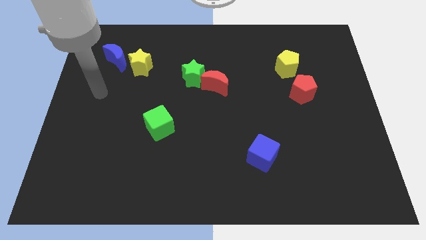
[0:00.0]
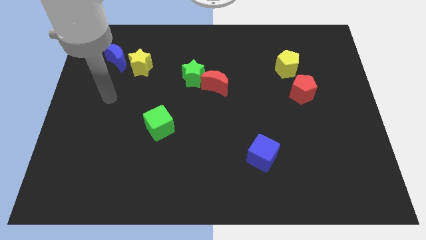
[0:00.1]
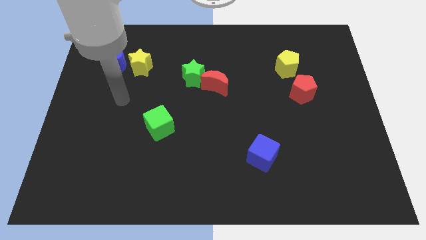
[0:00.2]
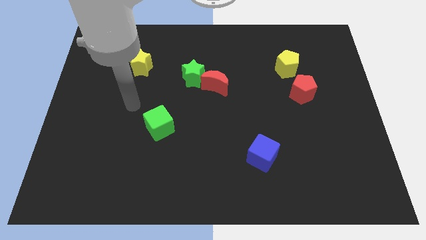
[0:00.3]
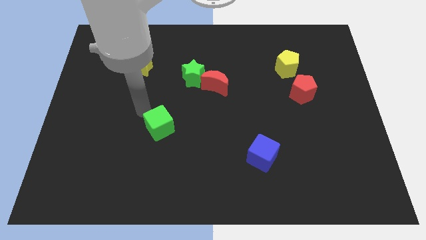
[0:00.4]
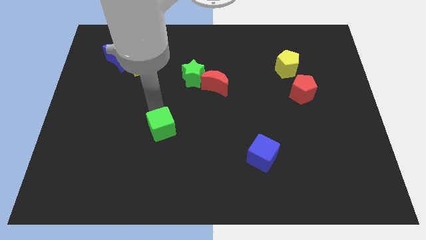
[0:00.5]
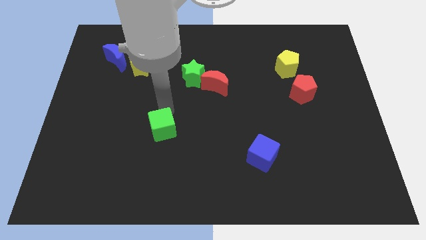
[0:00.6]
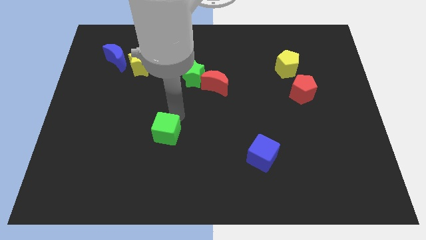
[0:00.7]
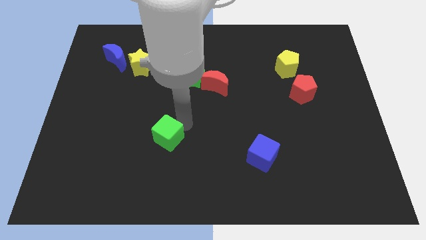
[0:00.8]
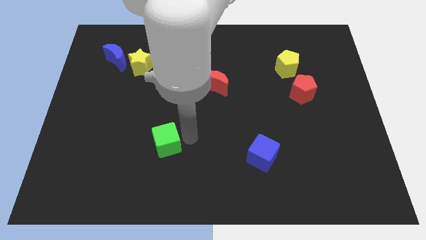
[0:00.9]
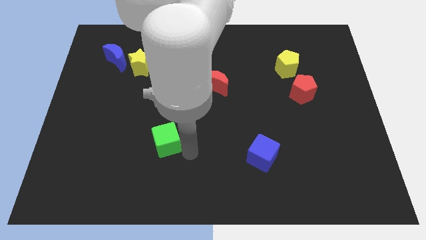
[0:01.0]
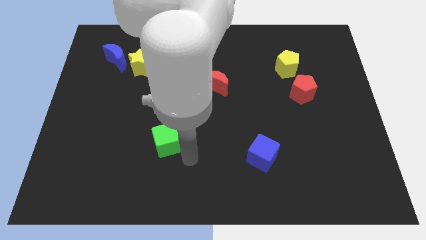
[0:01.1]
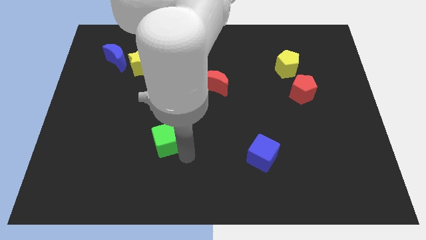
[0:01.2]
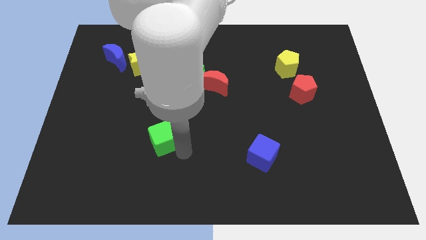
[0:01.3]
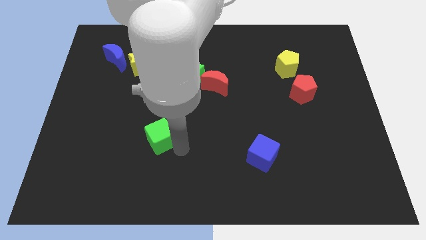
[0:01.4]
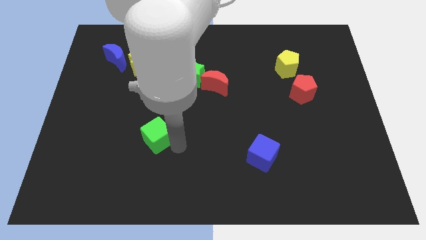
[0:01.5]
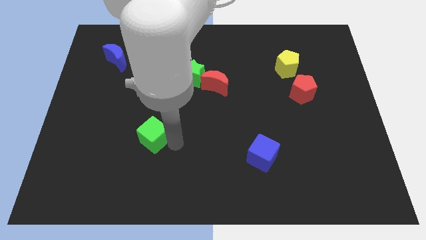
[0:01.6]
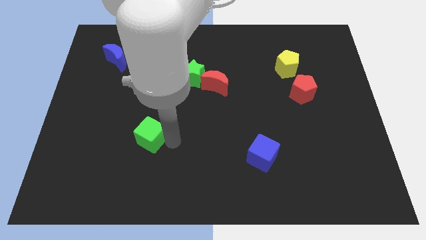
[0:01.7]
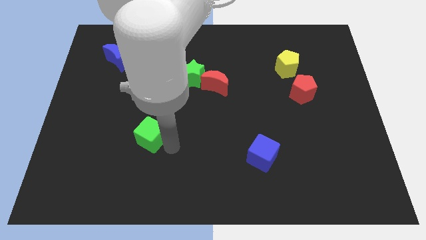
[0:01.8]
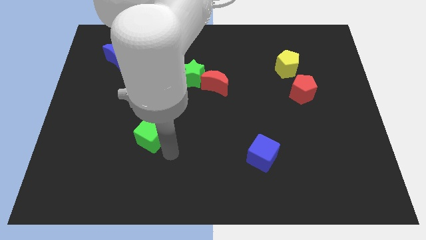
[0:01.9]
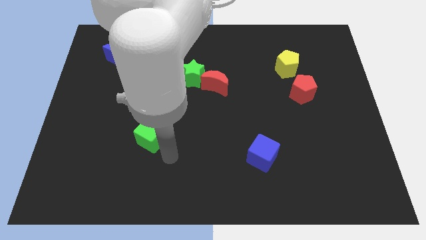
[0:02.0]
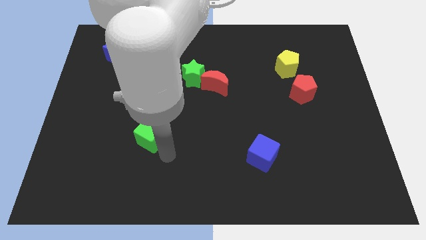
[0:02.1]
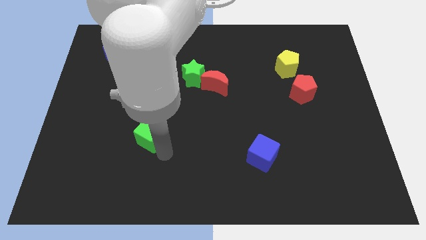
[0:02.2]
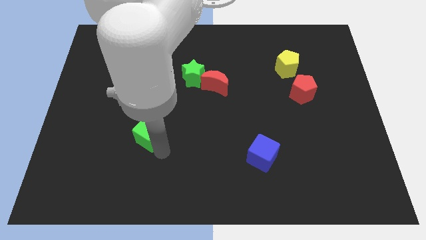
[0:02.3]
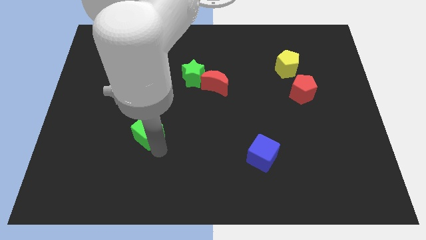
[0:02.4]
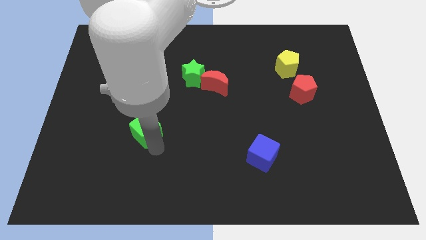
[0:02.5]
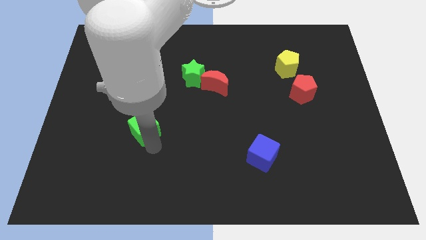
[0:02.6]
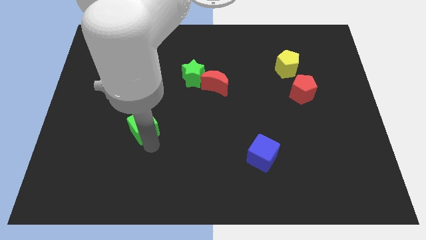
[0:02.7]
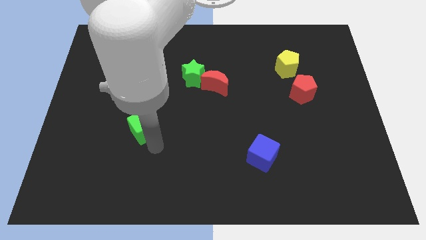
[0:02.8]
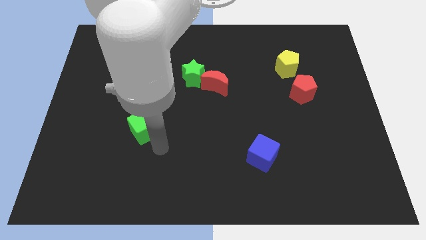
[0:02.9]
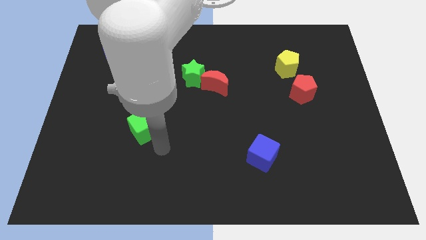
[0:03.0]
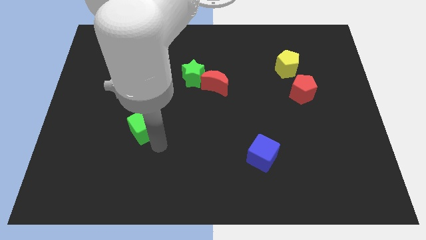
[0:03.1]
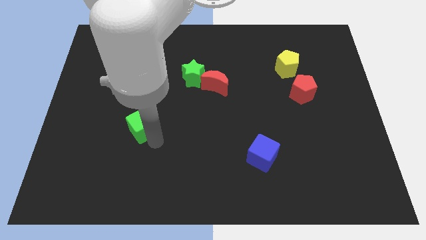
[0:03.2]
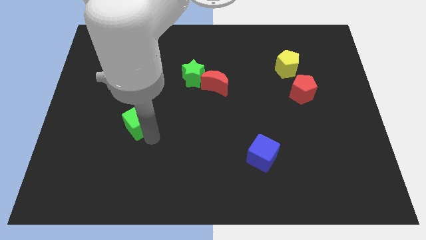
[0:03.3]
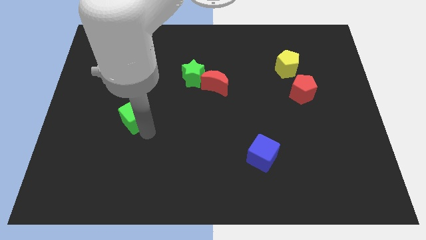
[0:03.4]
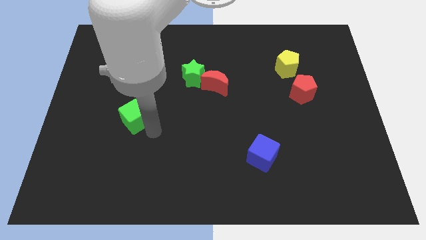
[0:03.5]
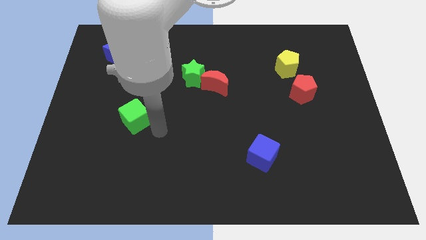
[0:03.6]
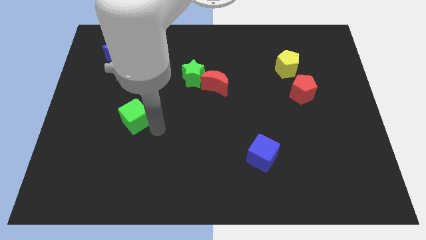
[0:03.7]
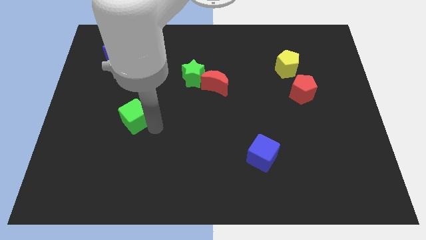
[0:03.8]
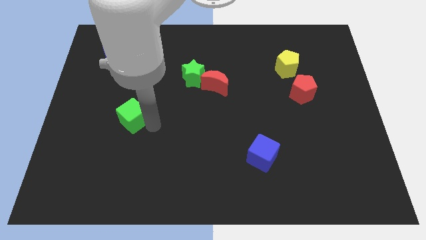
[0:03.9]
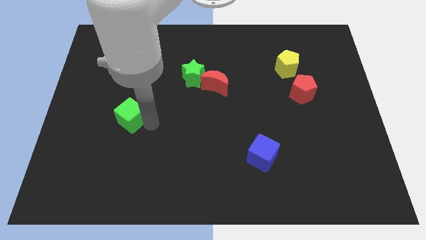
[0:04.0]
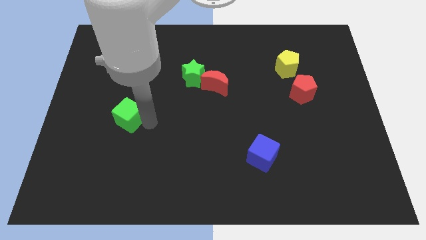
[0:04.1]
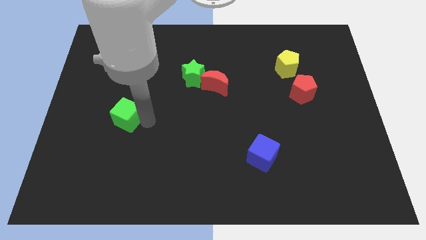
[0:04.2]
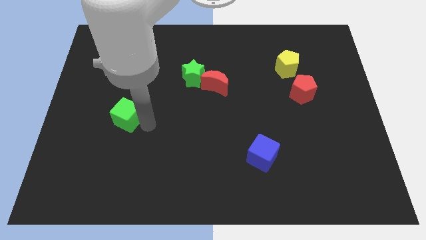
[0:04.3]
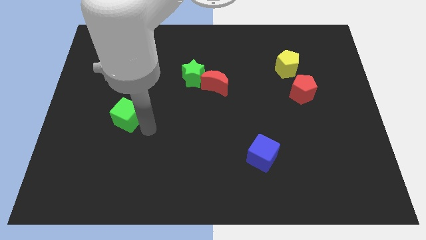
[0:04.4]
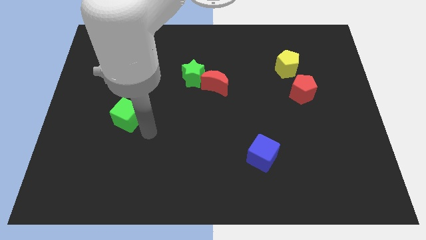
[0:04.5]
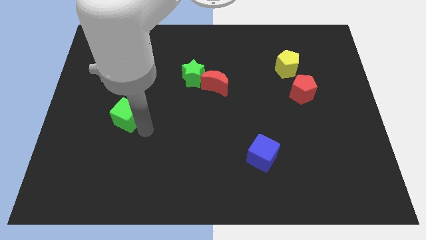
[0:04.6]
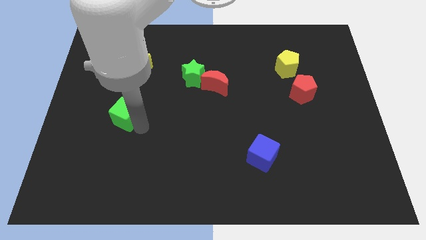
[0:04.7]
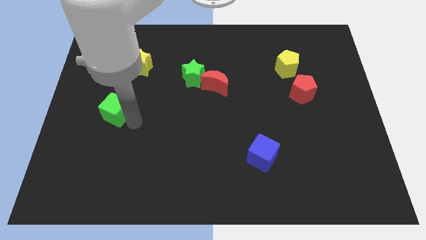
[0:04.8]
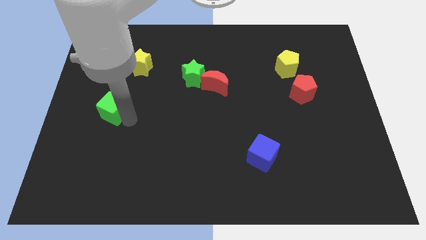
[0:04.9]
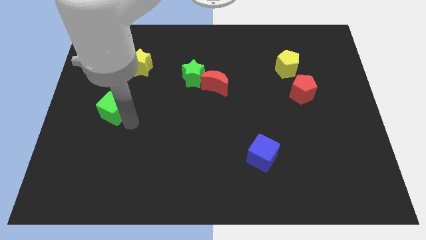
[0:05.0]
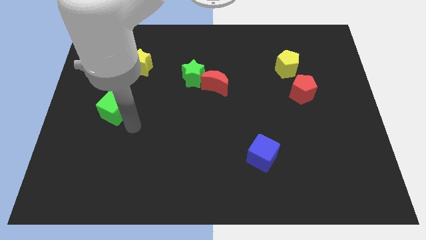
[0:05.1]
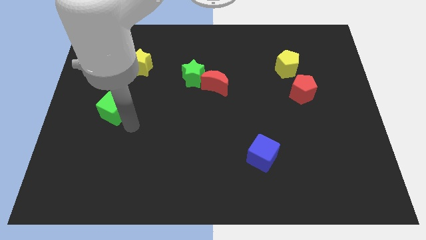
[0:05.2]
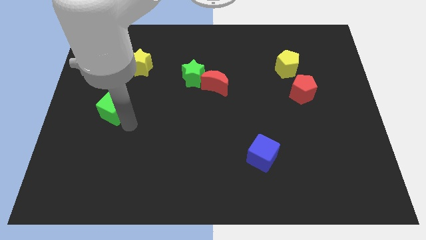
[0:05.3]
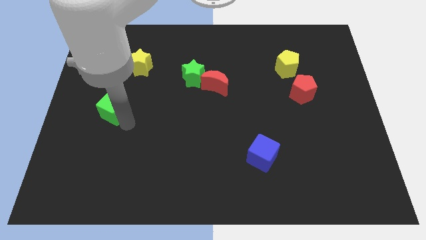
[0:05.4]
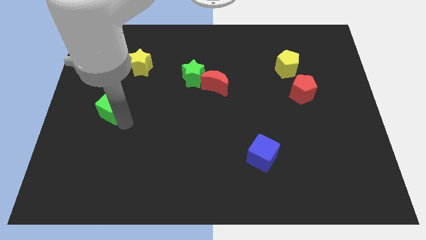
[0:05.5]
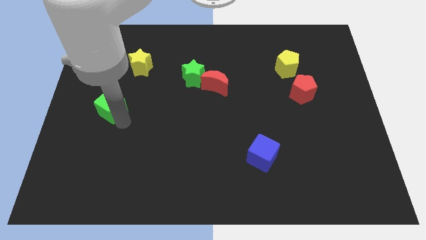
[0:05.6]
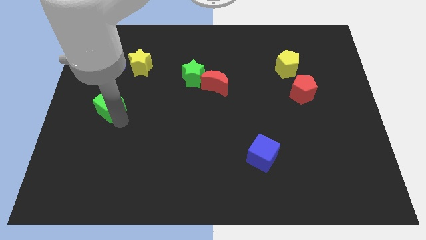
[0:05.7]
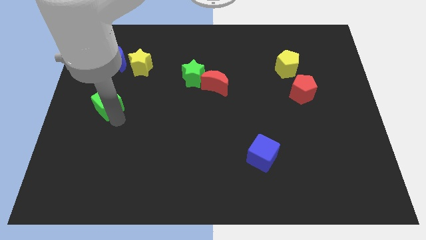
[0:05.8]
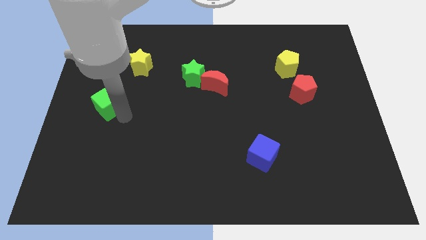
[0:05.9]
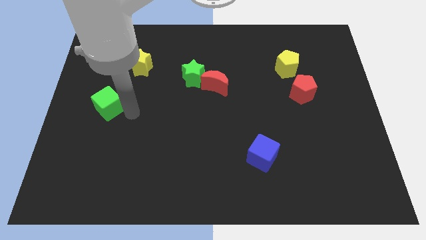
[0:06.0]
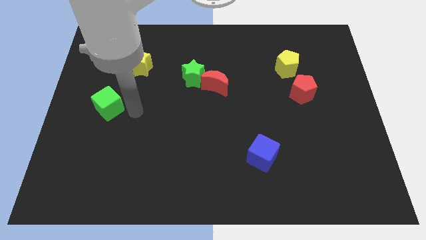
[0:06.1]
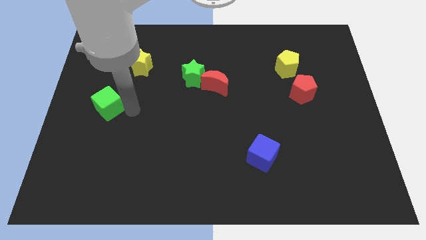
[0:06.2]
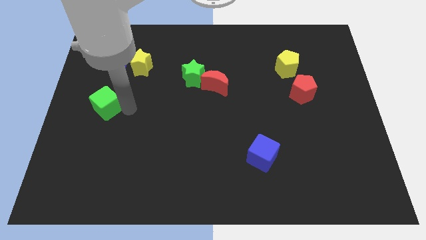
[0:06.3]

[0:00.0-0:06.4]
put the green cube to the left side of the board

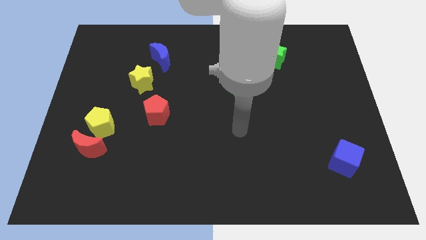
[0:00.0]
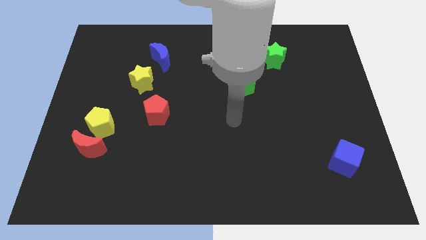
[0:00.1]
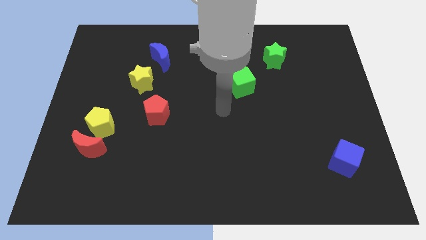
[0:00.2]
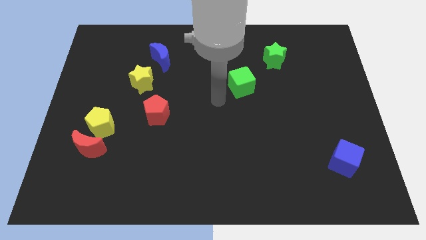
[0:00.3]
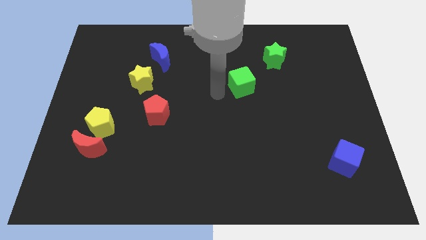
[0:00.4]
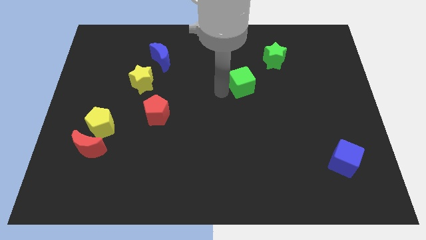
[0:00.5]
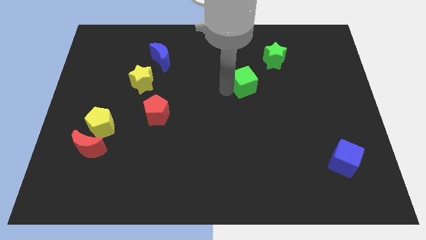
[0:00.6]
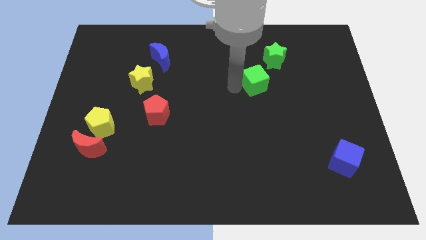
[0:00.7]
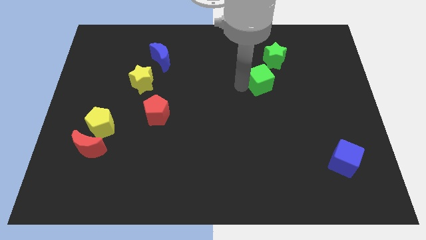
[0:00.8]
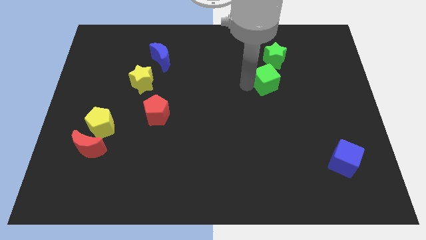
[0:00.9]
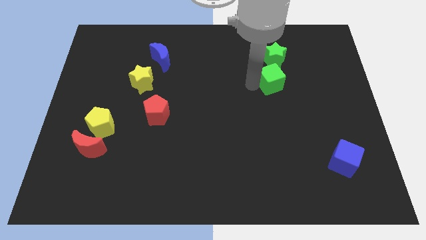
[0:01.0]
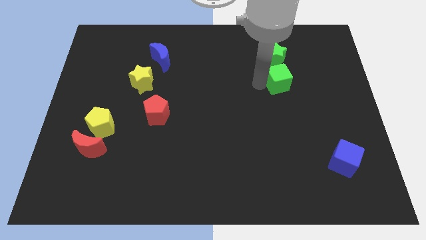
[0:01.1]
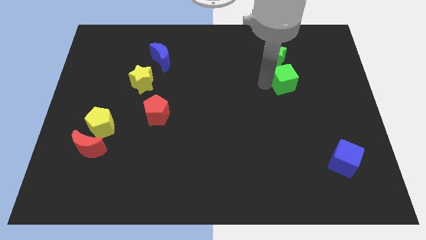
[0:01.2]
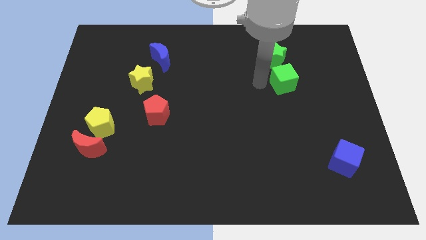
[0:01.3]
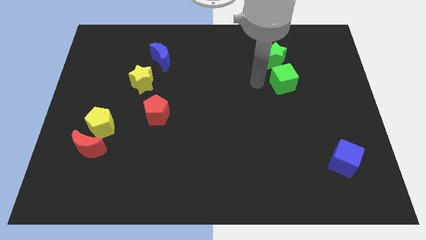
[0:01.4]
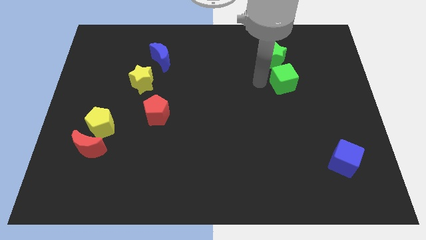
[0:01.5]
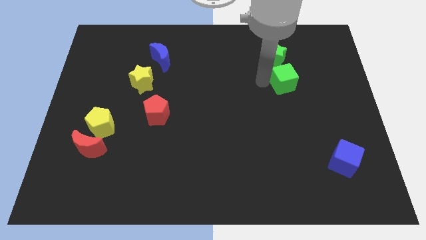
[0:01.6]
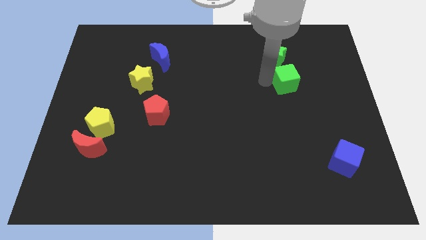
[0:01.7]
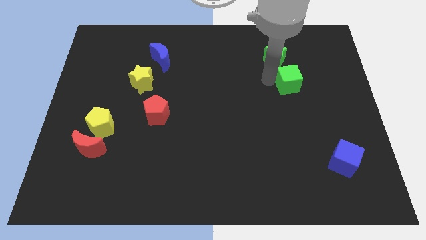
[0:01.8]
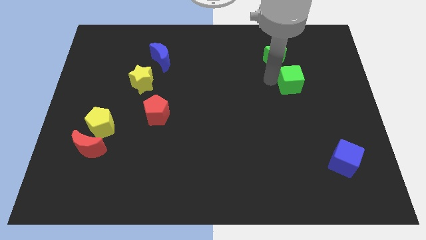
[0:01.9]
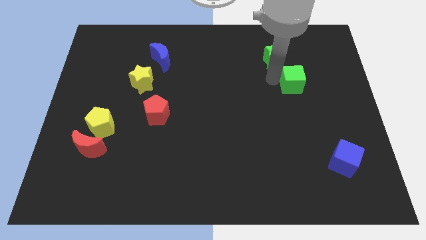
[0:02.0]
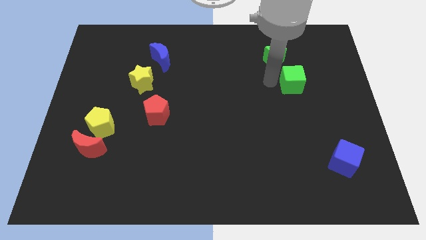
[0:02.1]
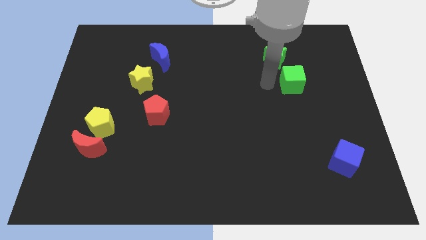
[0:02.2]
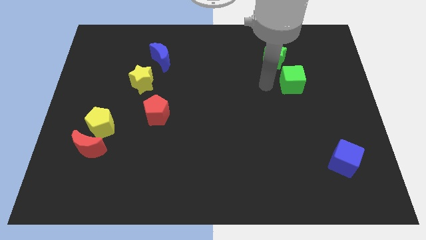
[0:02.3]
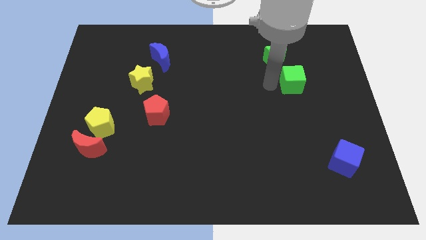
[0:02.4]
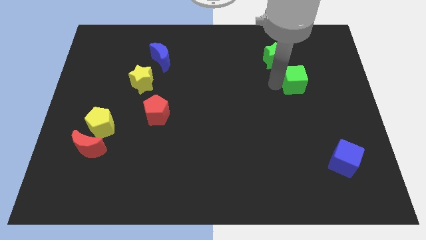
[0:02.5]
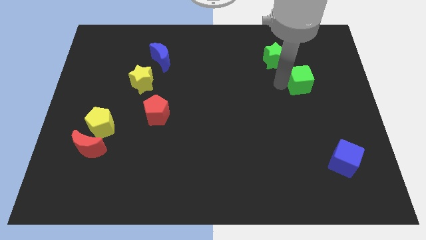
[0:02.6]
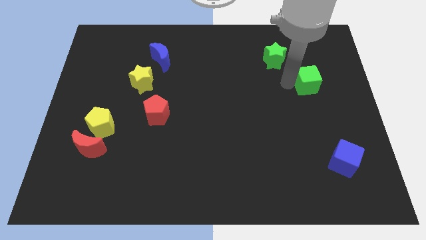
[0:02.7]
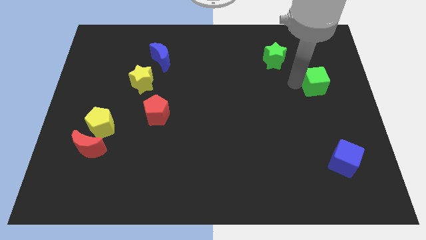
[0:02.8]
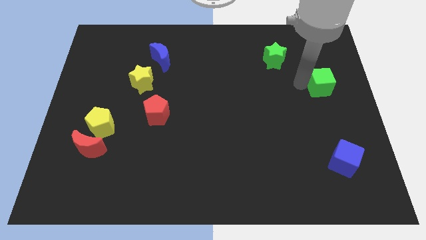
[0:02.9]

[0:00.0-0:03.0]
move the green cube to the center right
